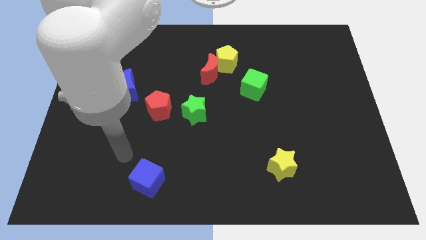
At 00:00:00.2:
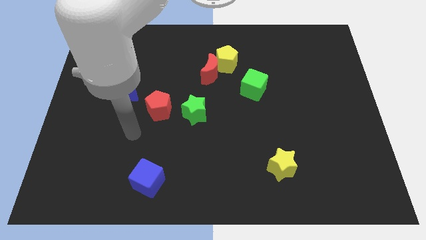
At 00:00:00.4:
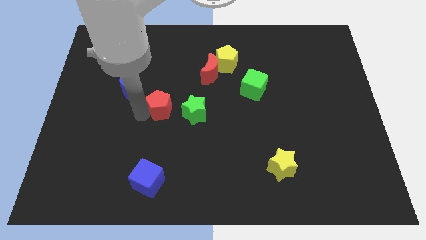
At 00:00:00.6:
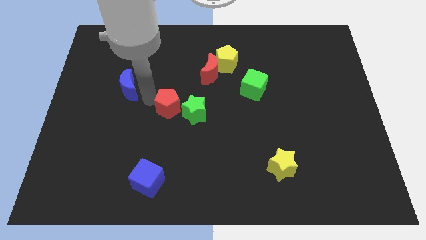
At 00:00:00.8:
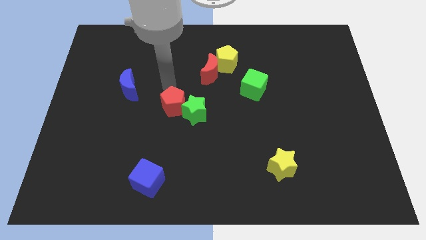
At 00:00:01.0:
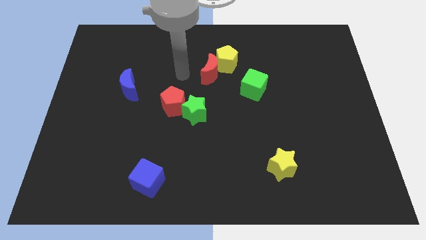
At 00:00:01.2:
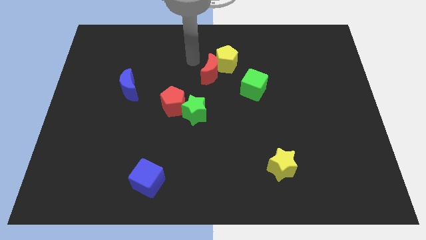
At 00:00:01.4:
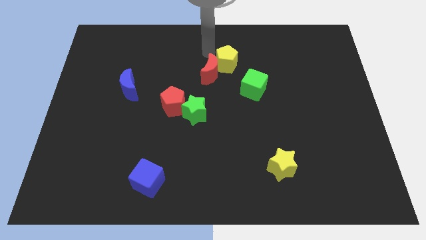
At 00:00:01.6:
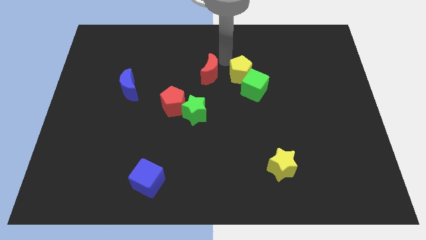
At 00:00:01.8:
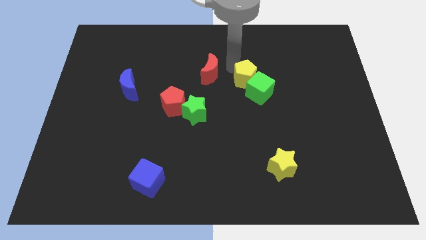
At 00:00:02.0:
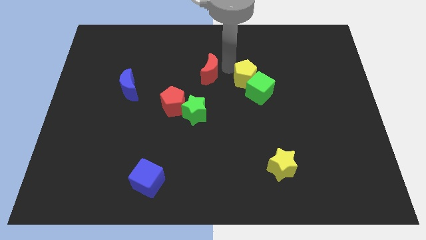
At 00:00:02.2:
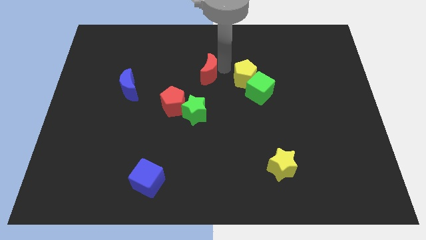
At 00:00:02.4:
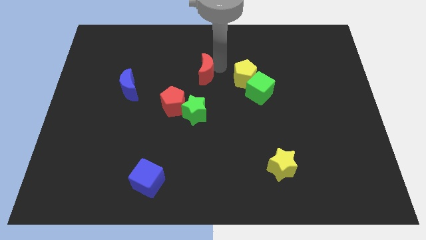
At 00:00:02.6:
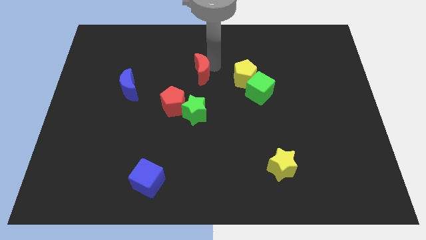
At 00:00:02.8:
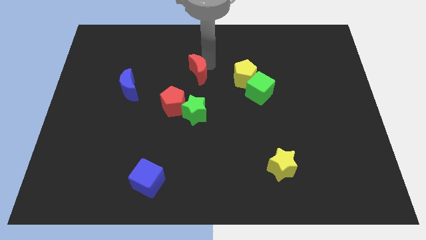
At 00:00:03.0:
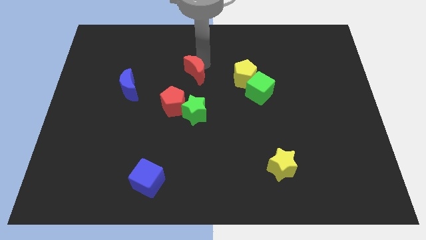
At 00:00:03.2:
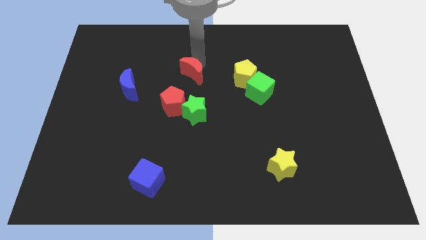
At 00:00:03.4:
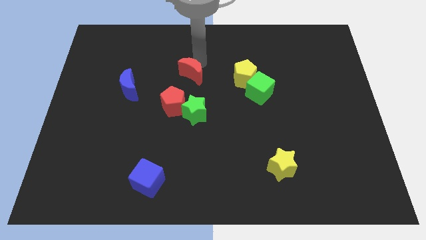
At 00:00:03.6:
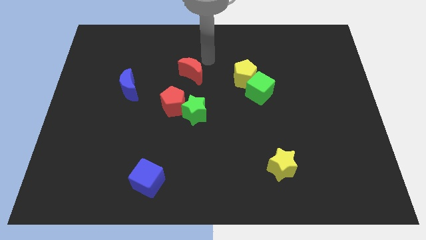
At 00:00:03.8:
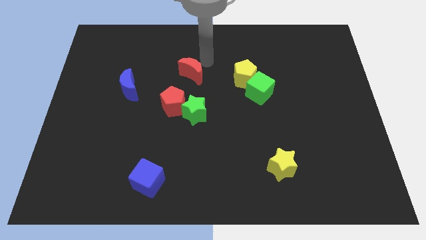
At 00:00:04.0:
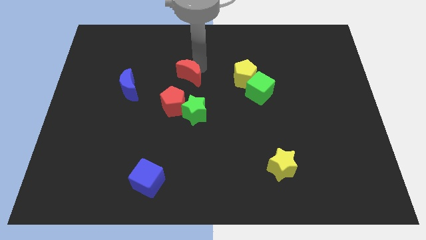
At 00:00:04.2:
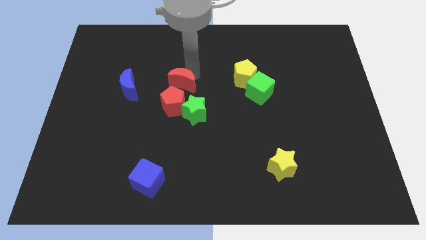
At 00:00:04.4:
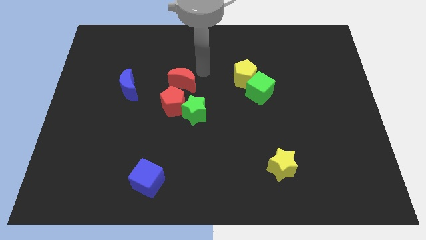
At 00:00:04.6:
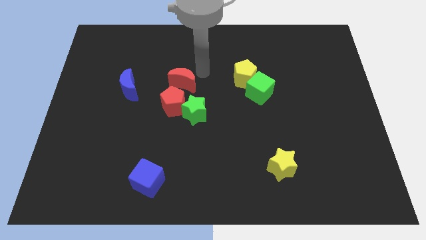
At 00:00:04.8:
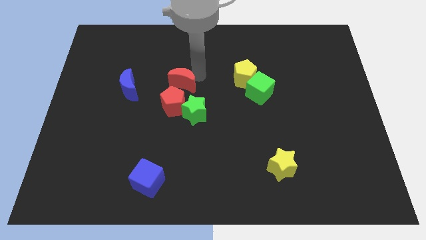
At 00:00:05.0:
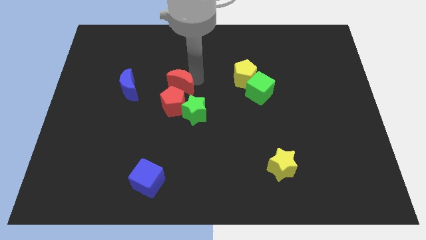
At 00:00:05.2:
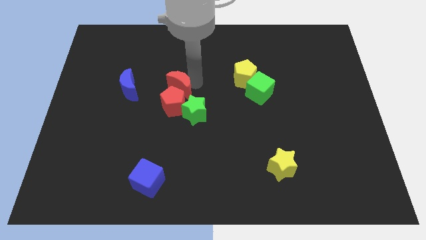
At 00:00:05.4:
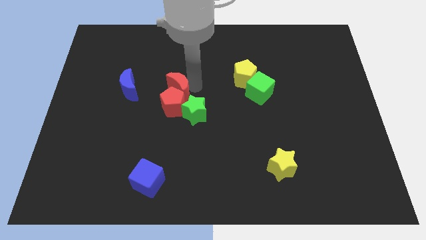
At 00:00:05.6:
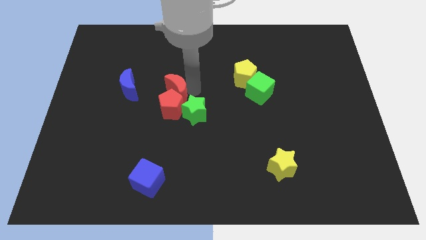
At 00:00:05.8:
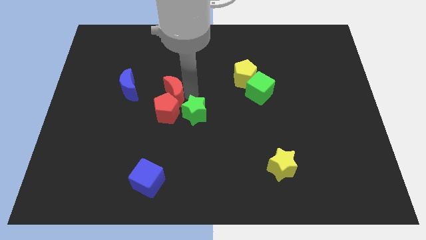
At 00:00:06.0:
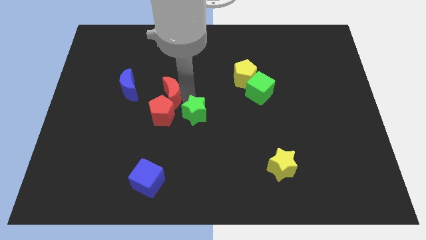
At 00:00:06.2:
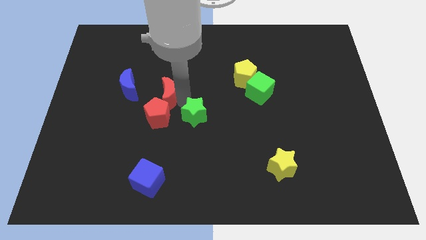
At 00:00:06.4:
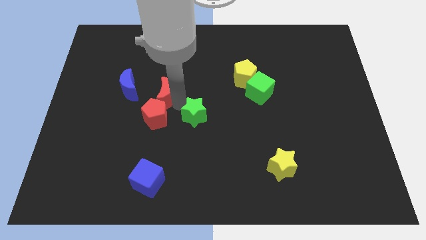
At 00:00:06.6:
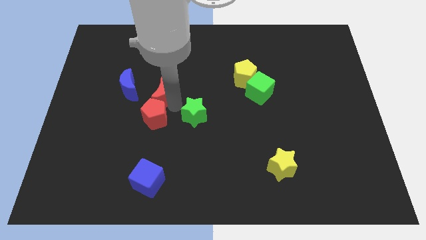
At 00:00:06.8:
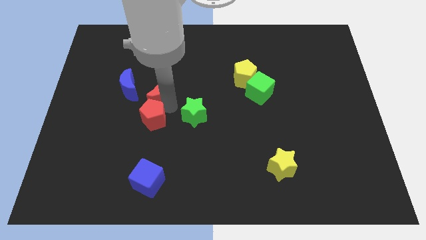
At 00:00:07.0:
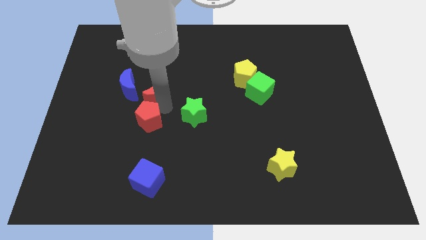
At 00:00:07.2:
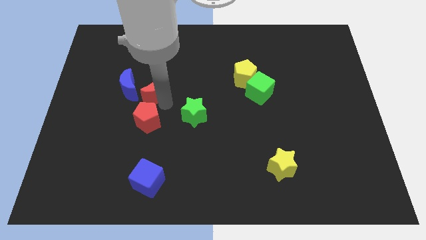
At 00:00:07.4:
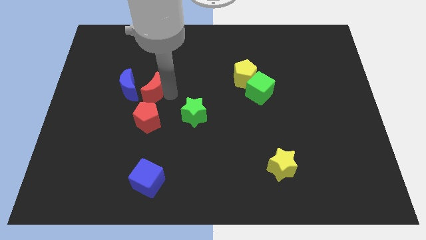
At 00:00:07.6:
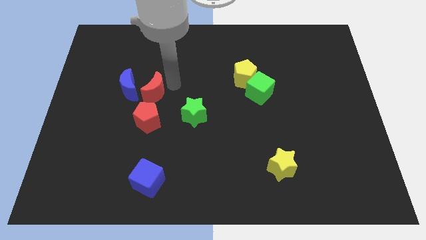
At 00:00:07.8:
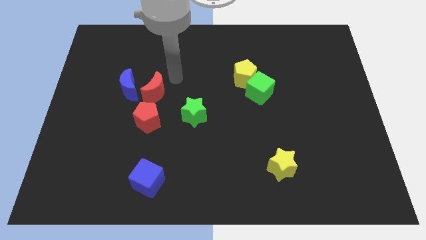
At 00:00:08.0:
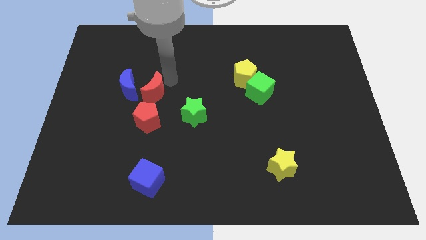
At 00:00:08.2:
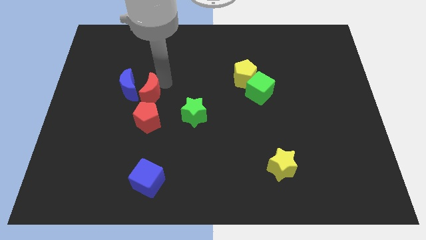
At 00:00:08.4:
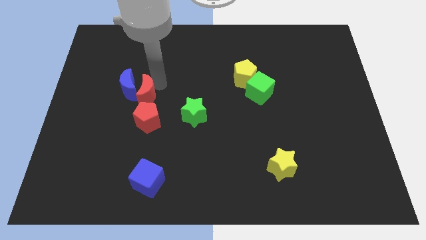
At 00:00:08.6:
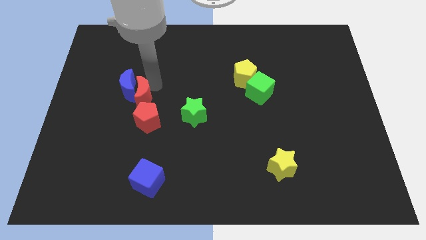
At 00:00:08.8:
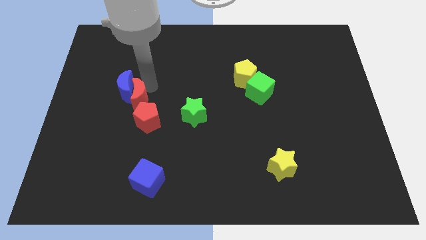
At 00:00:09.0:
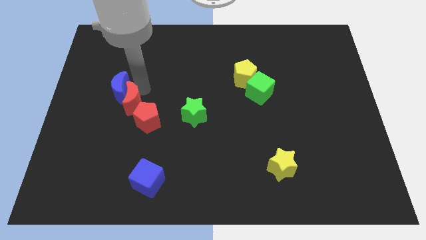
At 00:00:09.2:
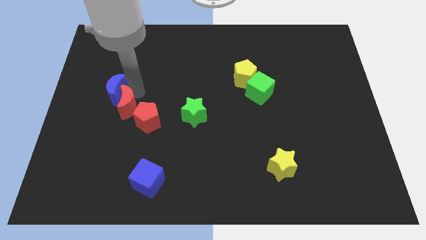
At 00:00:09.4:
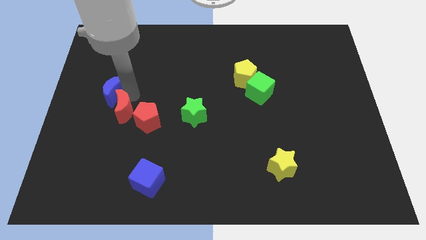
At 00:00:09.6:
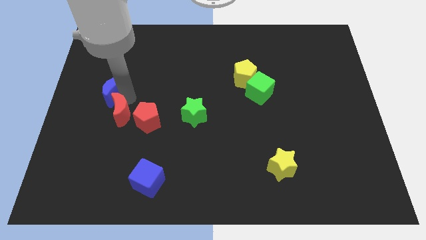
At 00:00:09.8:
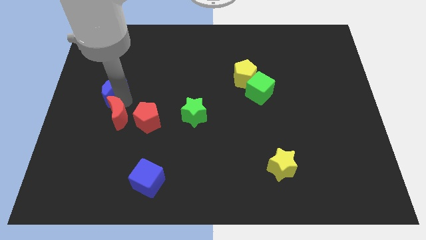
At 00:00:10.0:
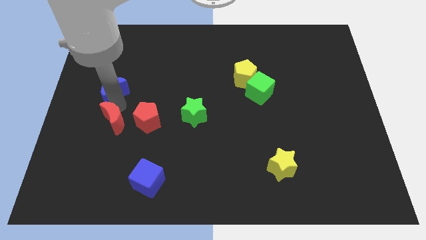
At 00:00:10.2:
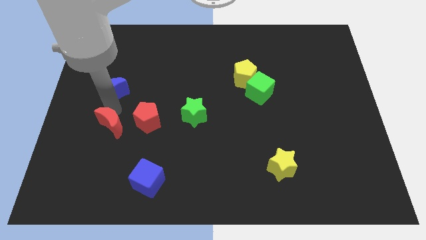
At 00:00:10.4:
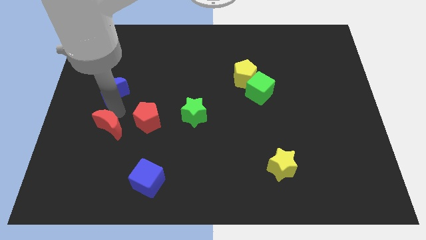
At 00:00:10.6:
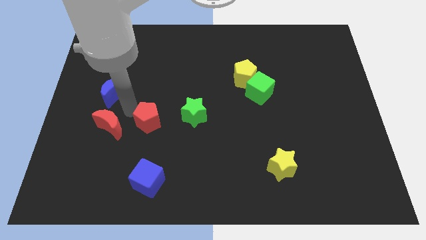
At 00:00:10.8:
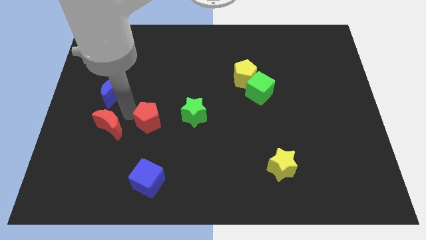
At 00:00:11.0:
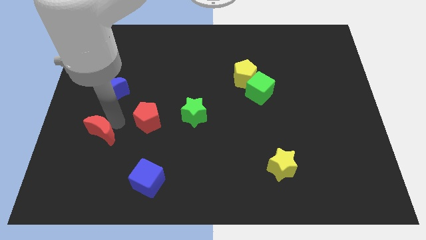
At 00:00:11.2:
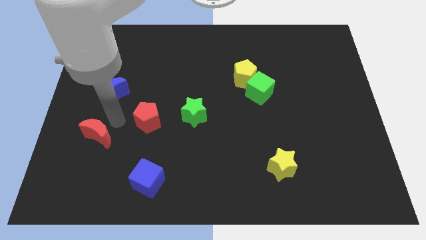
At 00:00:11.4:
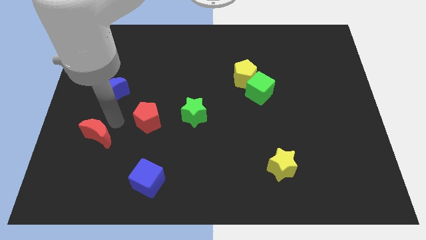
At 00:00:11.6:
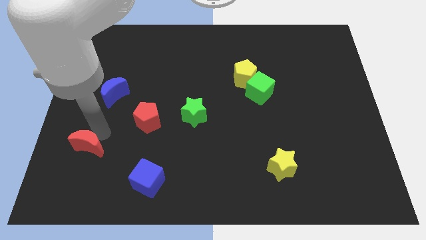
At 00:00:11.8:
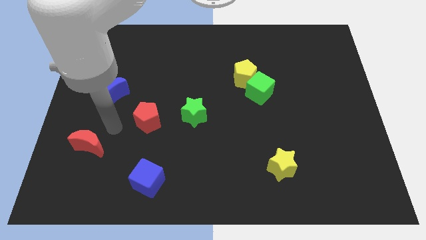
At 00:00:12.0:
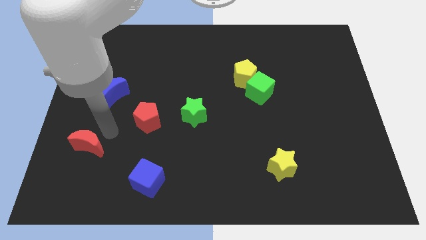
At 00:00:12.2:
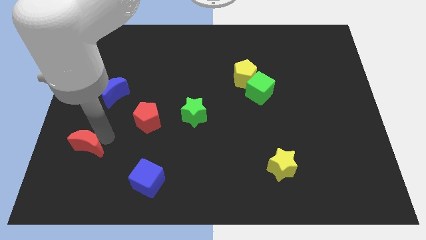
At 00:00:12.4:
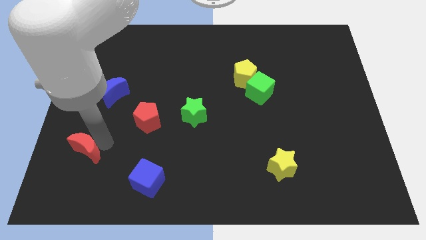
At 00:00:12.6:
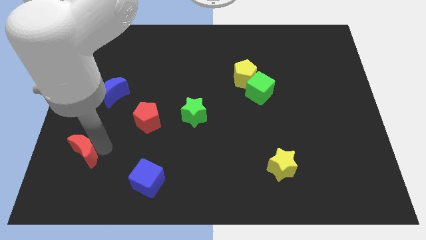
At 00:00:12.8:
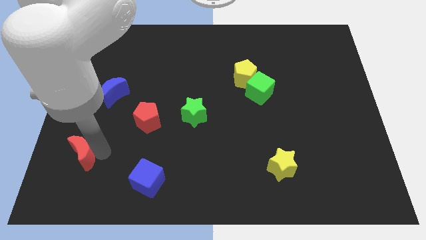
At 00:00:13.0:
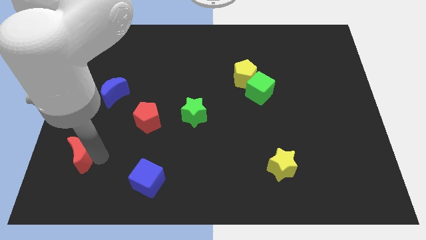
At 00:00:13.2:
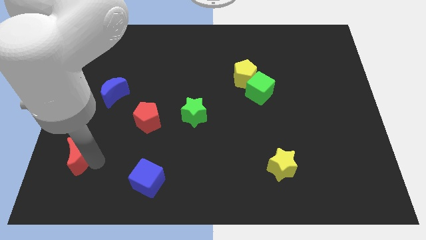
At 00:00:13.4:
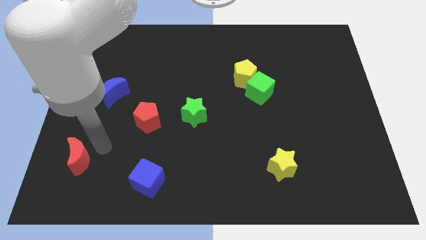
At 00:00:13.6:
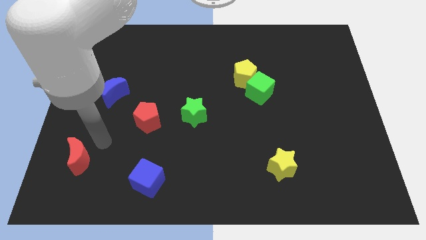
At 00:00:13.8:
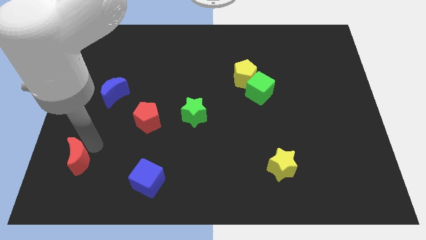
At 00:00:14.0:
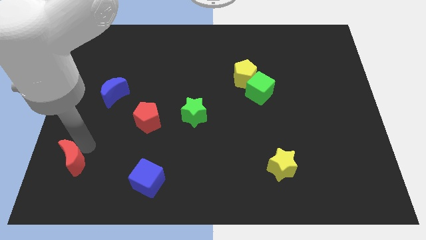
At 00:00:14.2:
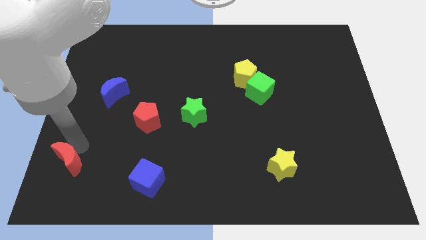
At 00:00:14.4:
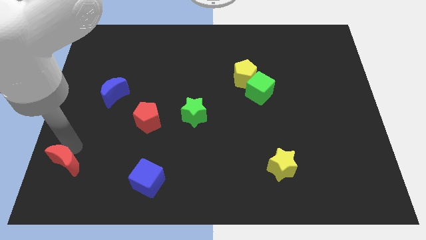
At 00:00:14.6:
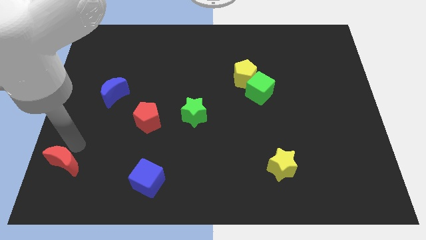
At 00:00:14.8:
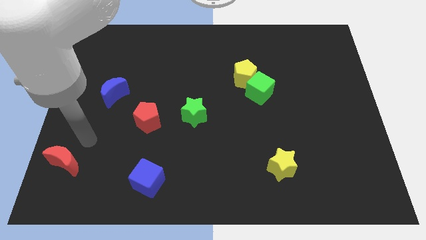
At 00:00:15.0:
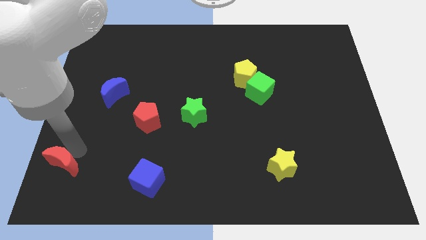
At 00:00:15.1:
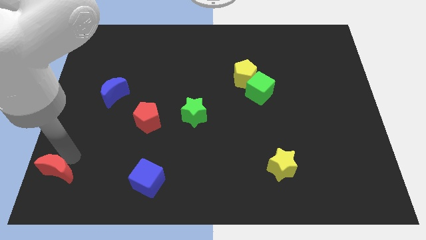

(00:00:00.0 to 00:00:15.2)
push the red moon to the bottom left of the board
